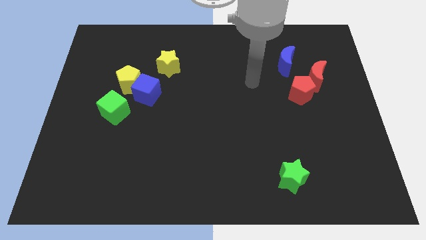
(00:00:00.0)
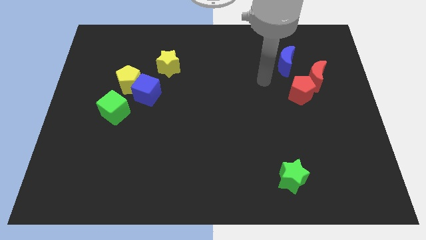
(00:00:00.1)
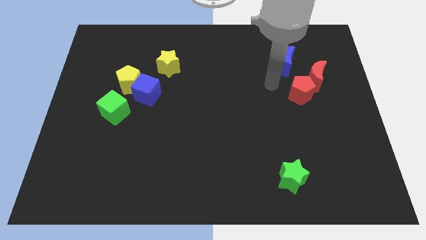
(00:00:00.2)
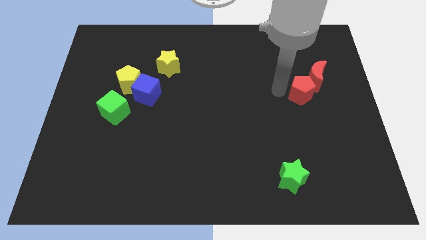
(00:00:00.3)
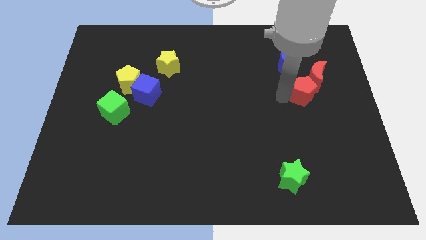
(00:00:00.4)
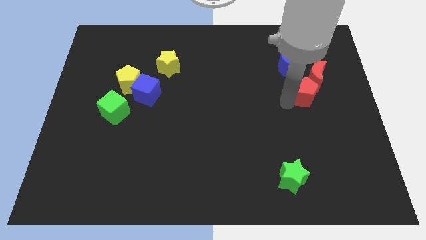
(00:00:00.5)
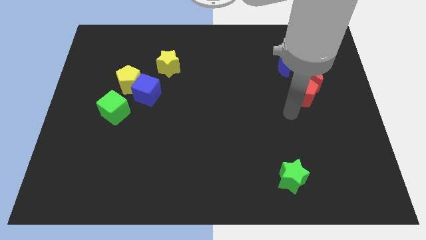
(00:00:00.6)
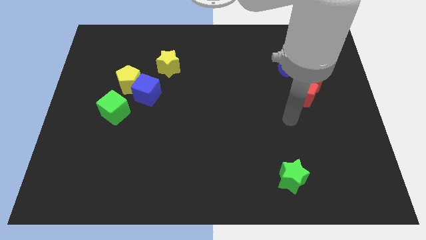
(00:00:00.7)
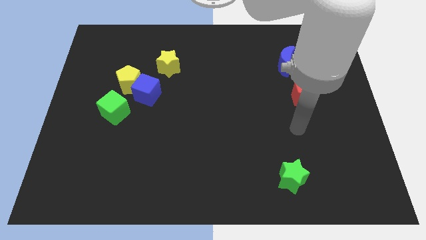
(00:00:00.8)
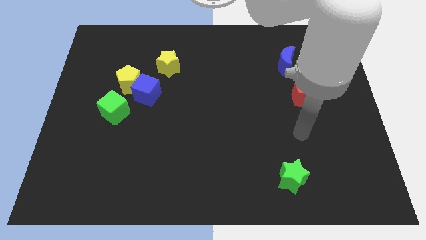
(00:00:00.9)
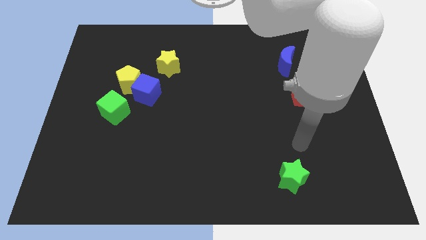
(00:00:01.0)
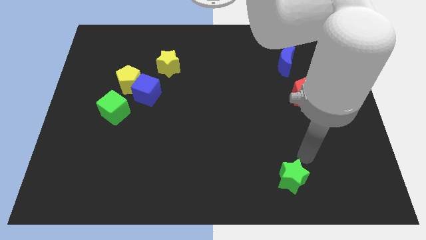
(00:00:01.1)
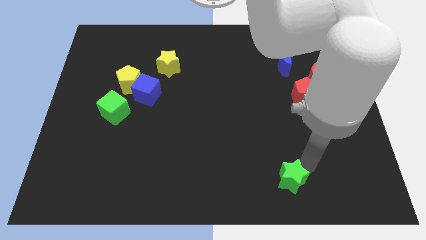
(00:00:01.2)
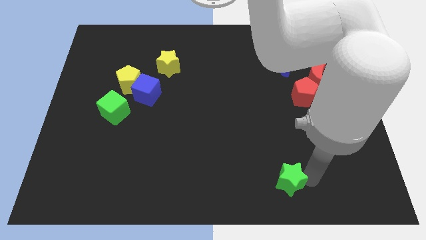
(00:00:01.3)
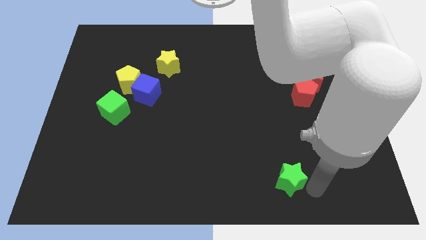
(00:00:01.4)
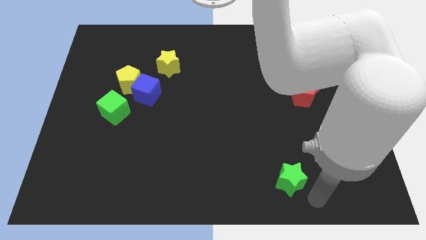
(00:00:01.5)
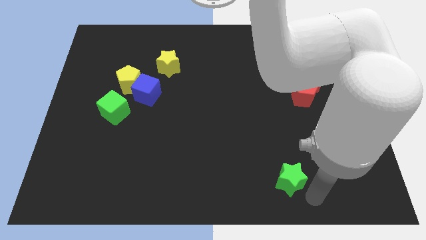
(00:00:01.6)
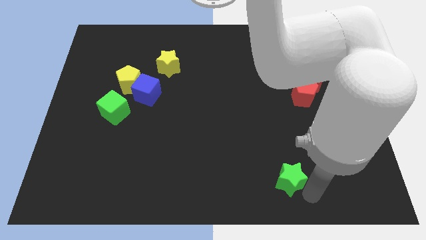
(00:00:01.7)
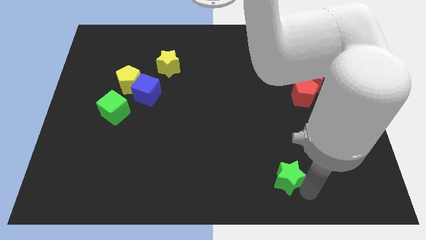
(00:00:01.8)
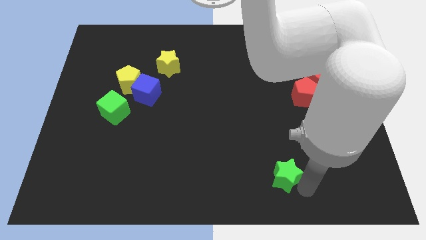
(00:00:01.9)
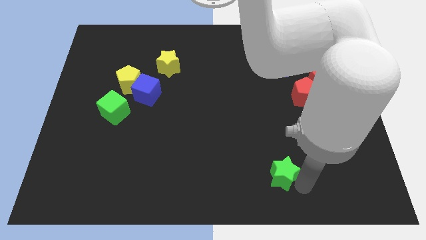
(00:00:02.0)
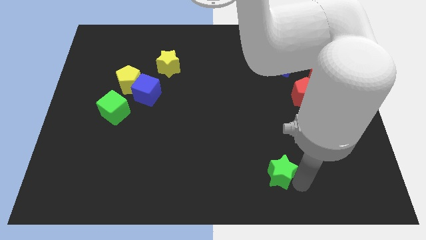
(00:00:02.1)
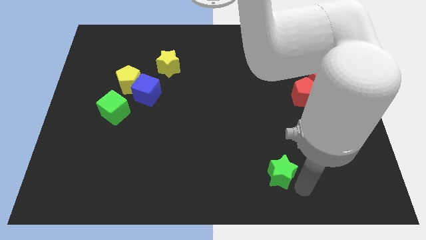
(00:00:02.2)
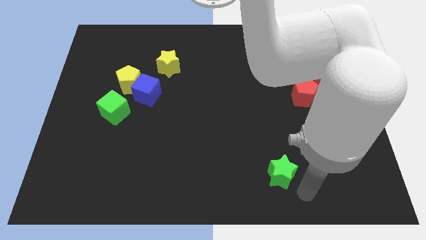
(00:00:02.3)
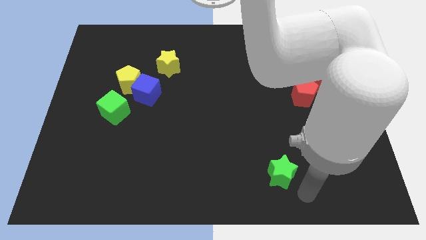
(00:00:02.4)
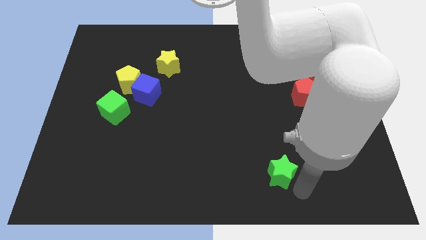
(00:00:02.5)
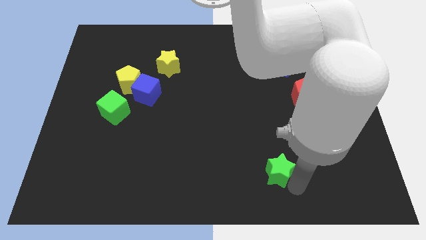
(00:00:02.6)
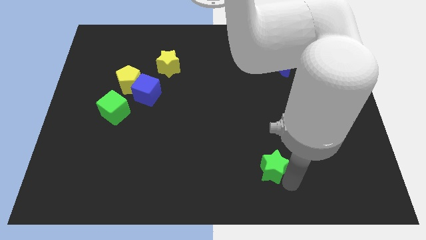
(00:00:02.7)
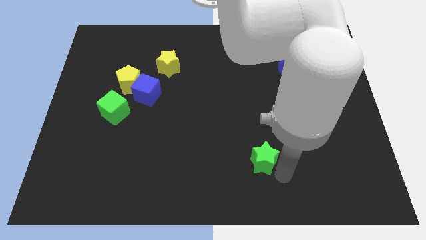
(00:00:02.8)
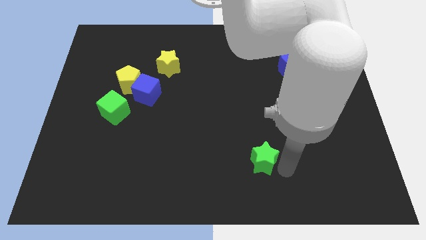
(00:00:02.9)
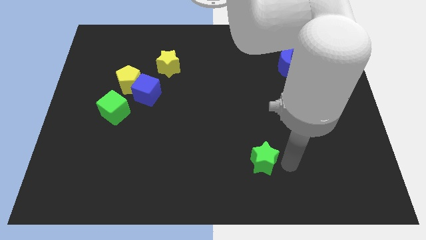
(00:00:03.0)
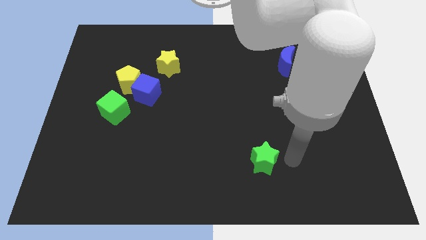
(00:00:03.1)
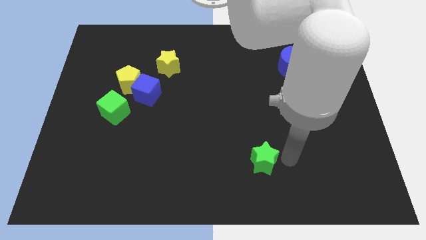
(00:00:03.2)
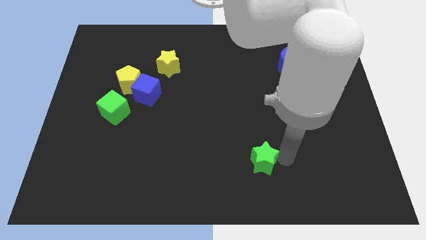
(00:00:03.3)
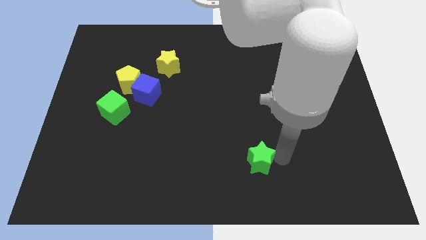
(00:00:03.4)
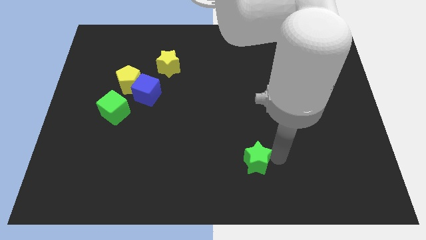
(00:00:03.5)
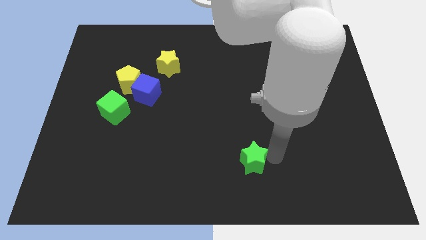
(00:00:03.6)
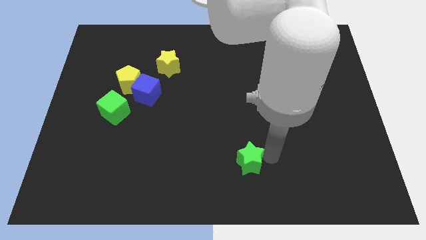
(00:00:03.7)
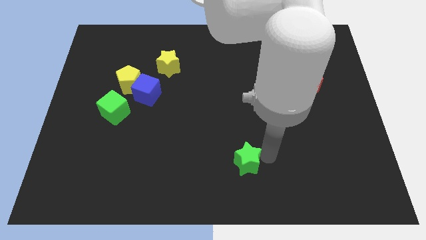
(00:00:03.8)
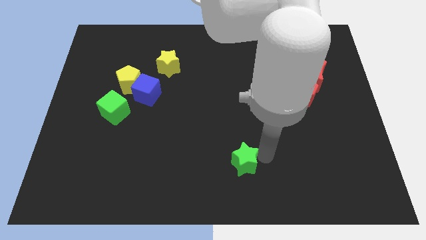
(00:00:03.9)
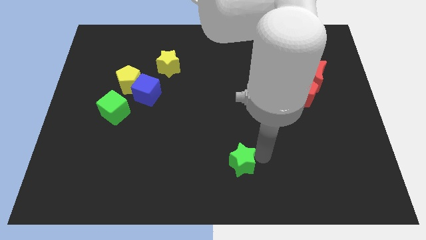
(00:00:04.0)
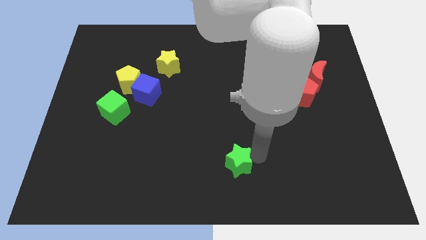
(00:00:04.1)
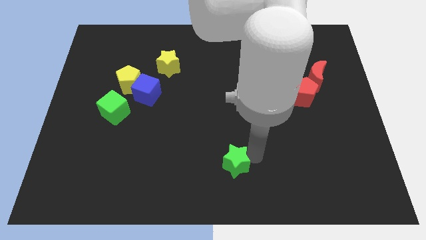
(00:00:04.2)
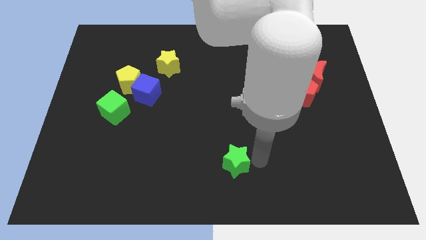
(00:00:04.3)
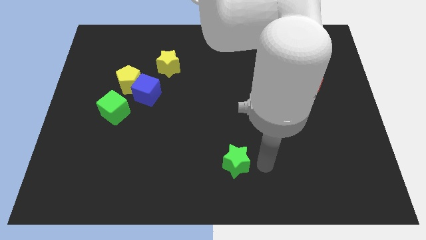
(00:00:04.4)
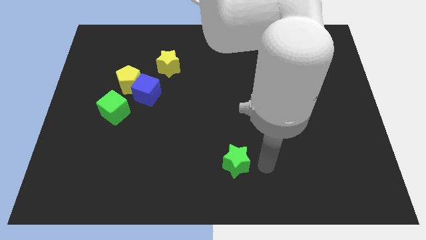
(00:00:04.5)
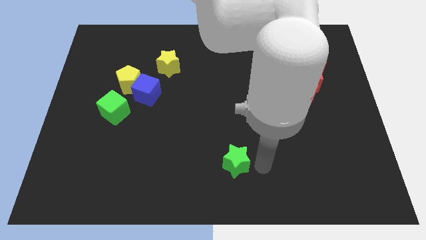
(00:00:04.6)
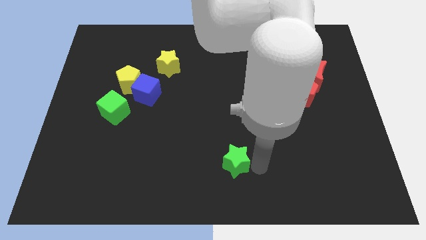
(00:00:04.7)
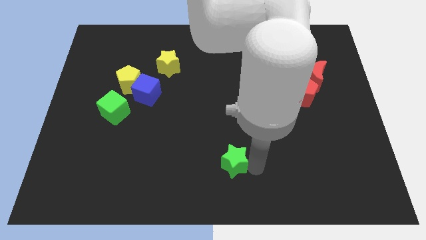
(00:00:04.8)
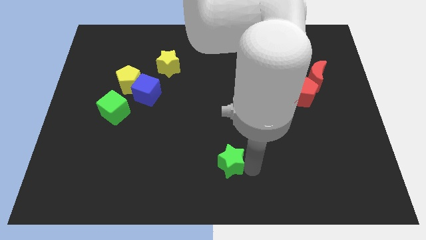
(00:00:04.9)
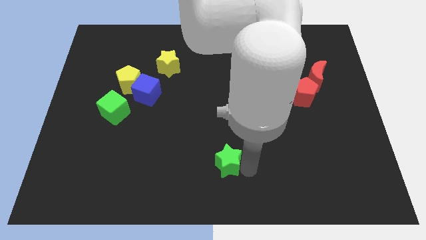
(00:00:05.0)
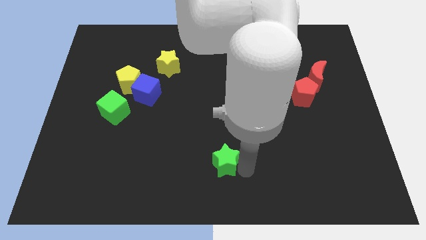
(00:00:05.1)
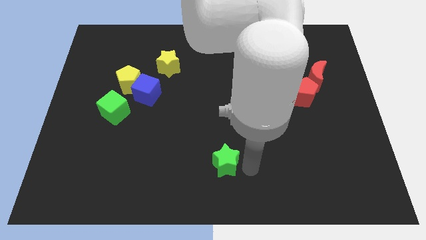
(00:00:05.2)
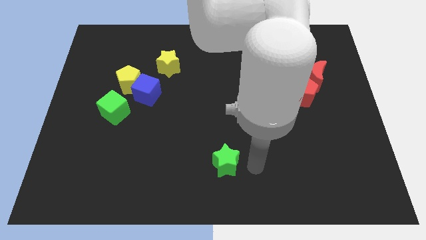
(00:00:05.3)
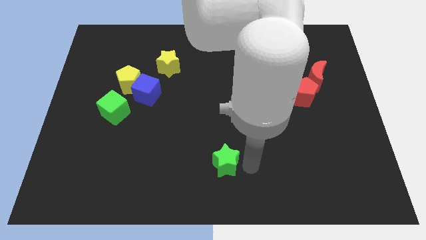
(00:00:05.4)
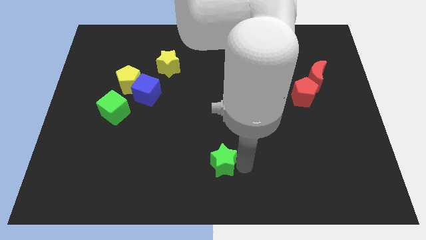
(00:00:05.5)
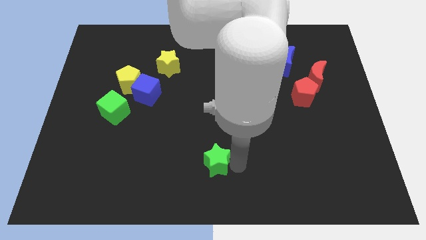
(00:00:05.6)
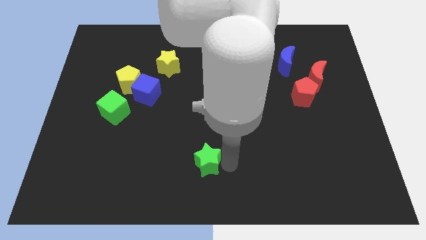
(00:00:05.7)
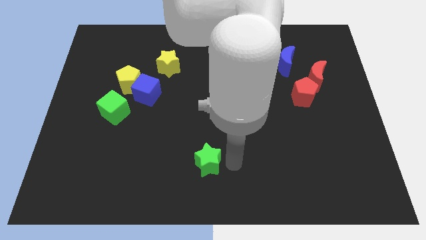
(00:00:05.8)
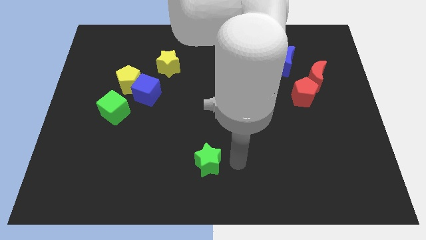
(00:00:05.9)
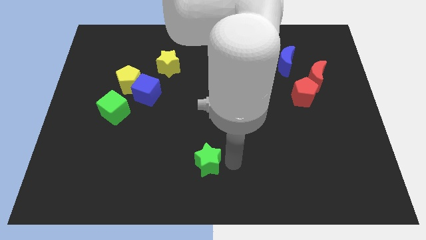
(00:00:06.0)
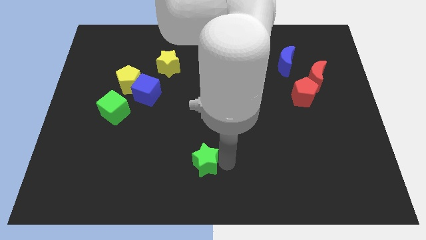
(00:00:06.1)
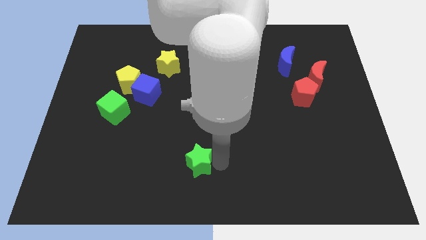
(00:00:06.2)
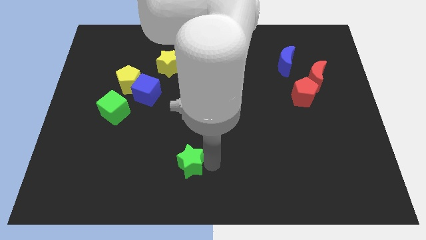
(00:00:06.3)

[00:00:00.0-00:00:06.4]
move the green star to the left

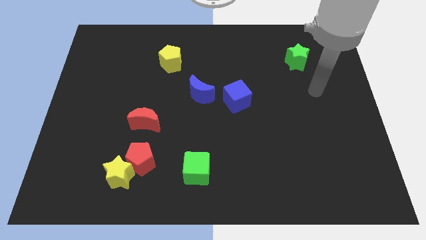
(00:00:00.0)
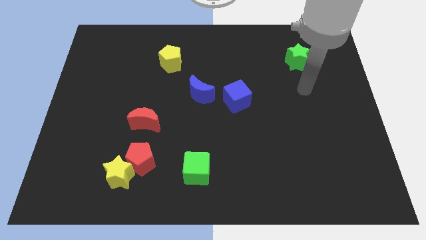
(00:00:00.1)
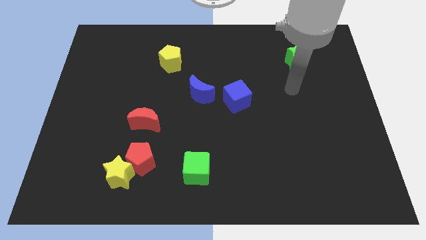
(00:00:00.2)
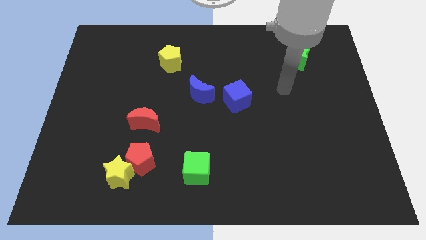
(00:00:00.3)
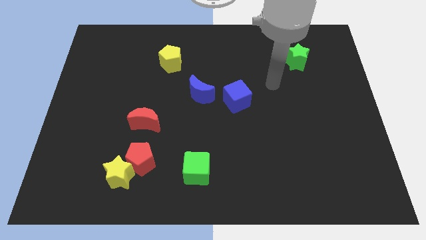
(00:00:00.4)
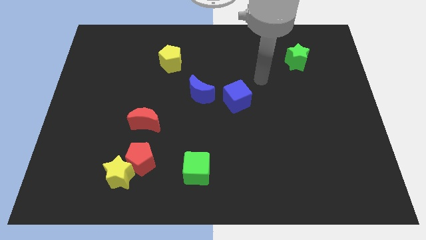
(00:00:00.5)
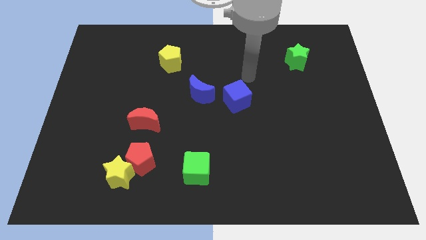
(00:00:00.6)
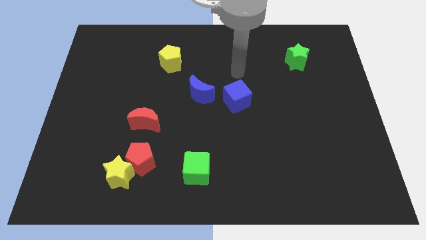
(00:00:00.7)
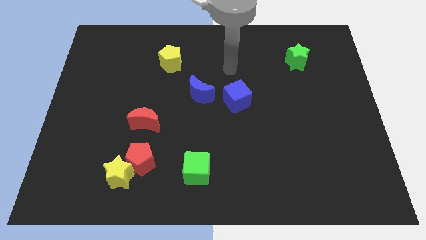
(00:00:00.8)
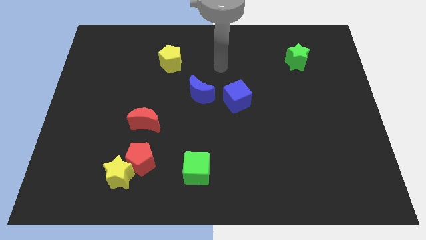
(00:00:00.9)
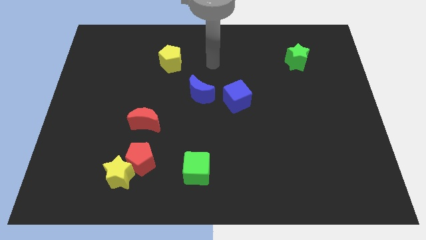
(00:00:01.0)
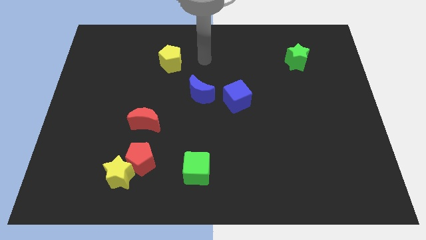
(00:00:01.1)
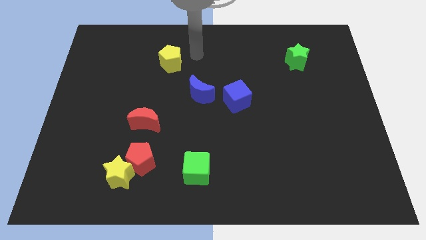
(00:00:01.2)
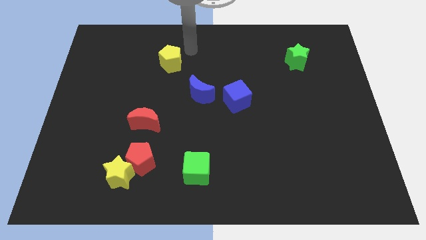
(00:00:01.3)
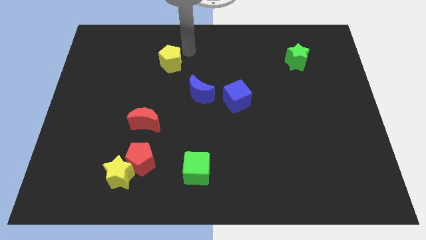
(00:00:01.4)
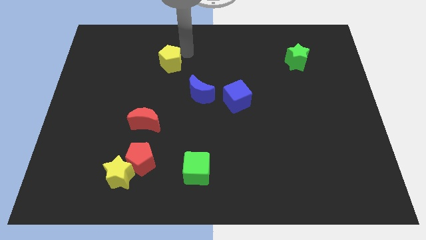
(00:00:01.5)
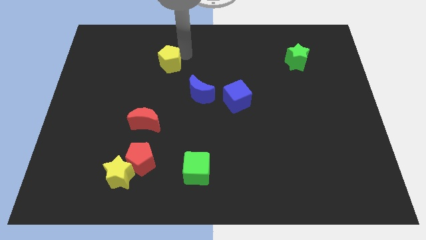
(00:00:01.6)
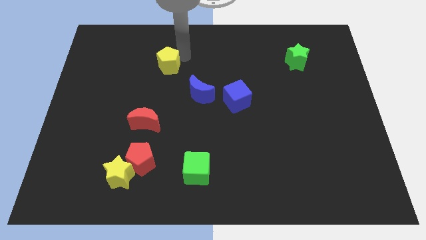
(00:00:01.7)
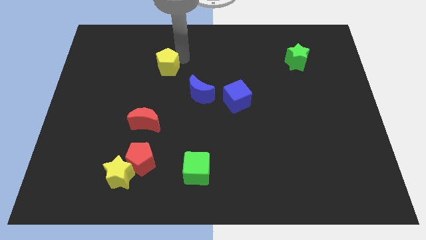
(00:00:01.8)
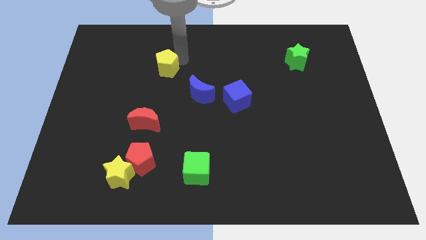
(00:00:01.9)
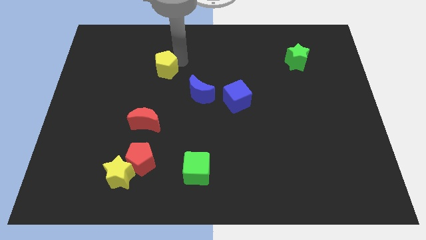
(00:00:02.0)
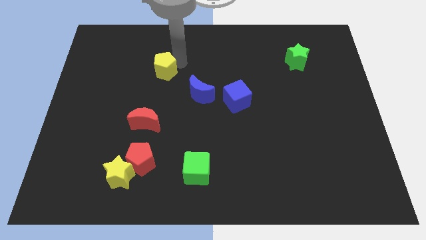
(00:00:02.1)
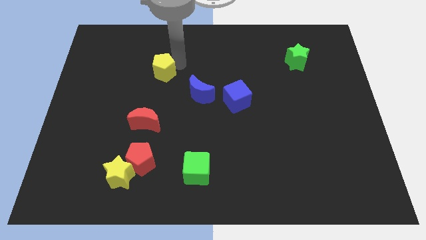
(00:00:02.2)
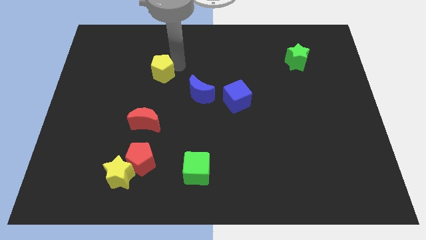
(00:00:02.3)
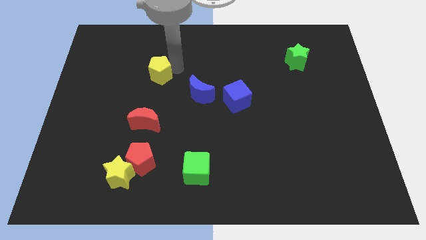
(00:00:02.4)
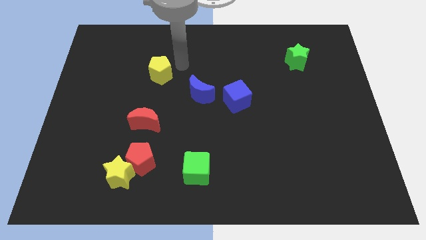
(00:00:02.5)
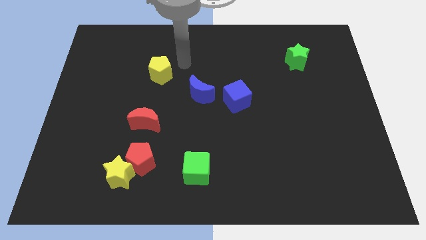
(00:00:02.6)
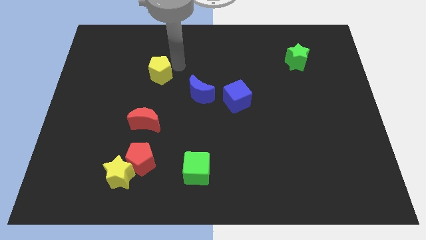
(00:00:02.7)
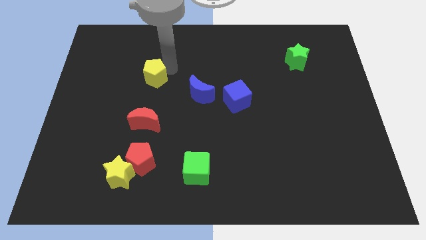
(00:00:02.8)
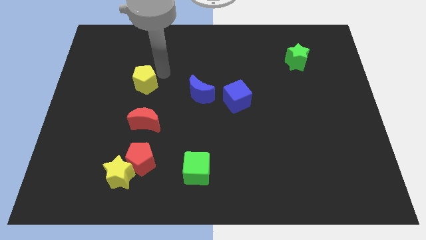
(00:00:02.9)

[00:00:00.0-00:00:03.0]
move the yellow pentagon diagonally downwards and to the left a little bit
